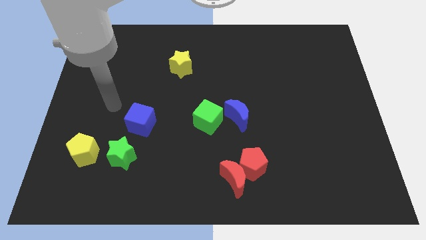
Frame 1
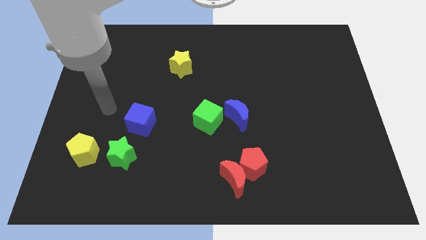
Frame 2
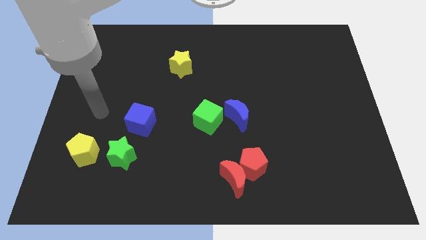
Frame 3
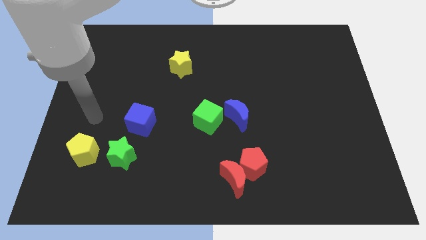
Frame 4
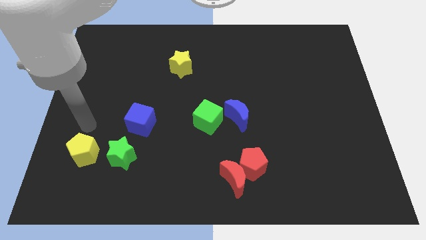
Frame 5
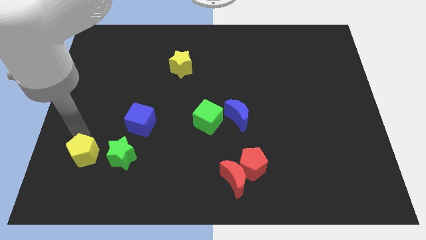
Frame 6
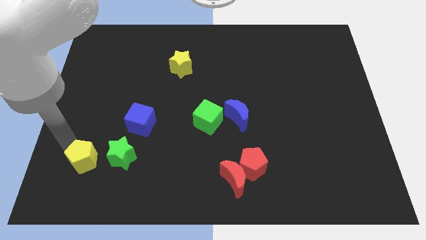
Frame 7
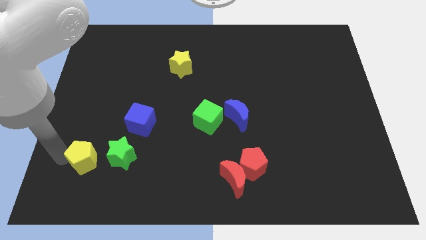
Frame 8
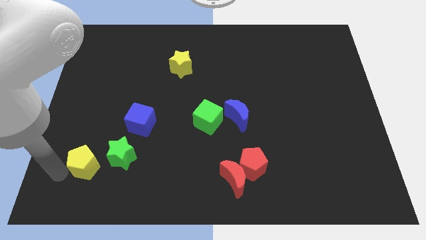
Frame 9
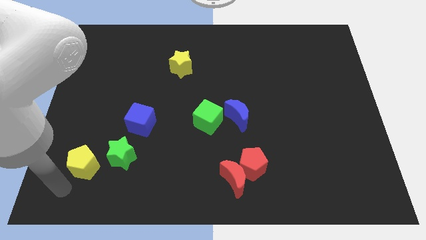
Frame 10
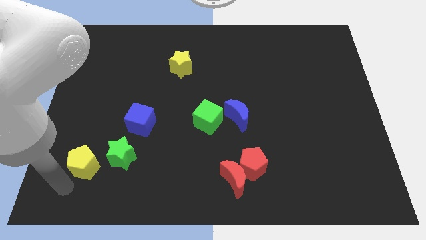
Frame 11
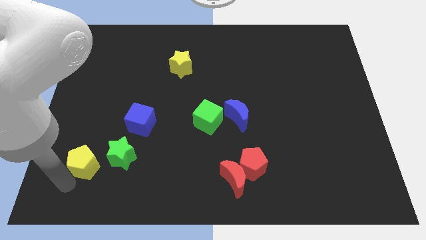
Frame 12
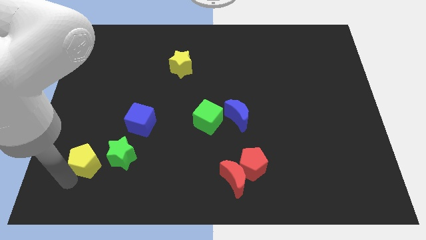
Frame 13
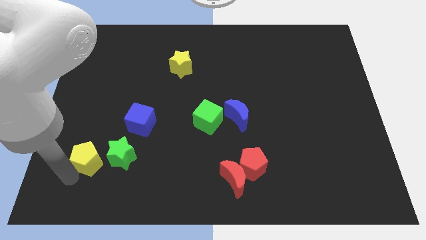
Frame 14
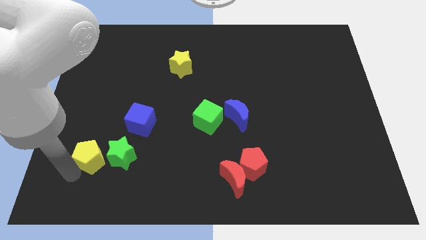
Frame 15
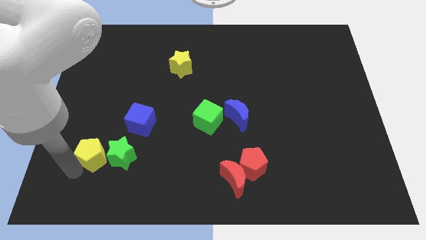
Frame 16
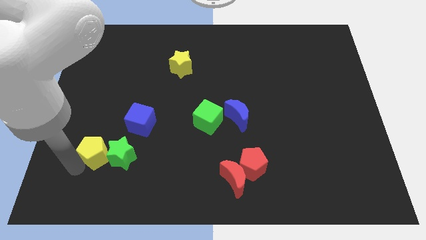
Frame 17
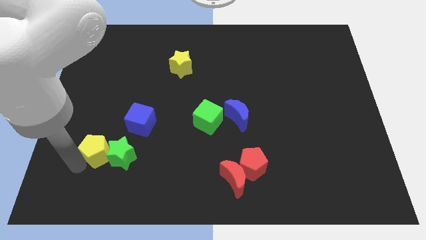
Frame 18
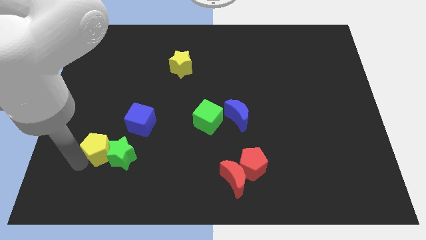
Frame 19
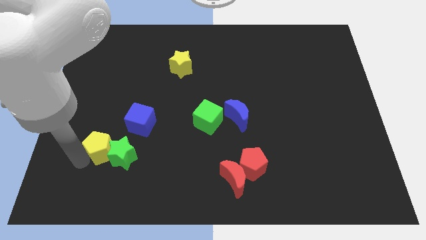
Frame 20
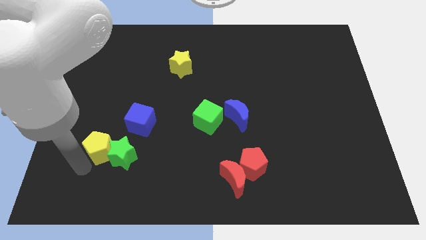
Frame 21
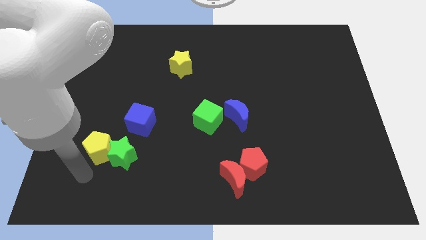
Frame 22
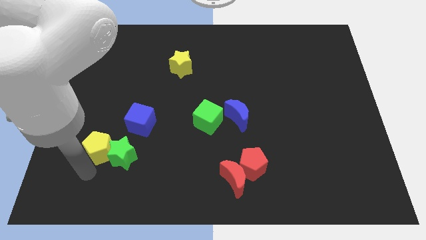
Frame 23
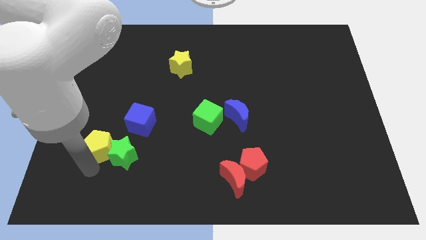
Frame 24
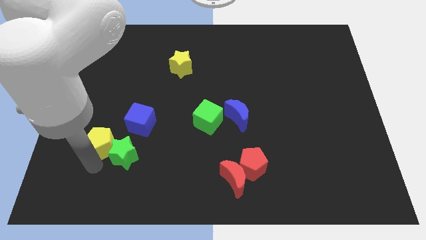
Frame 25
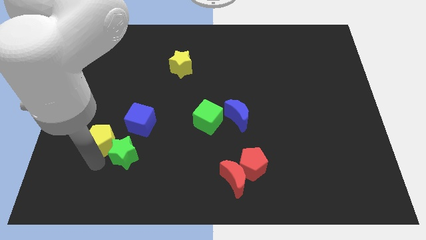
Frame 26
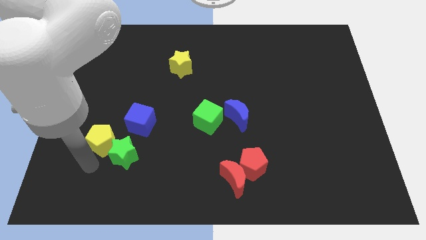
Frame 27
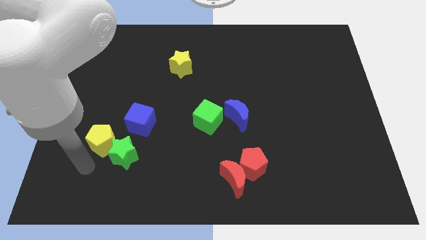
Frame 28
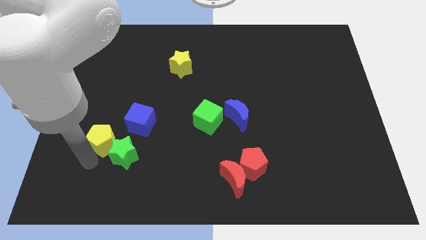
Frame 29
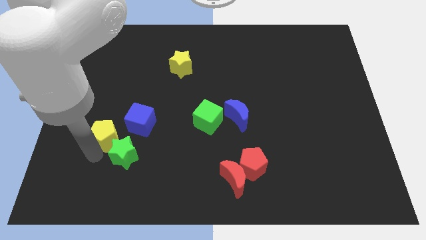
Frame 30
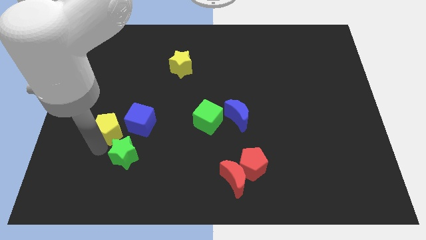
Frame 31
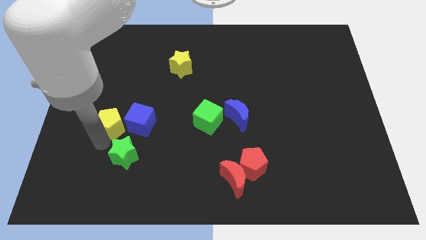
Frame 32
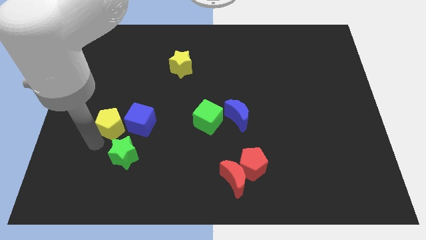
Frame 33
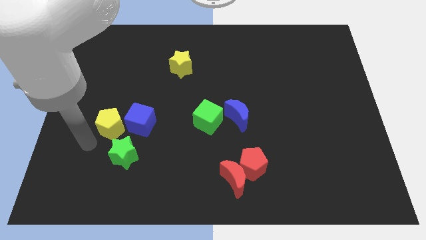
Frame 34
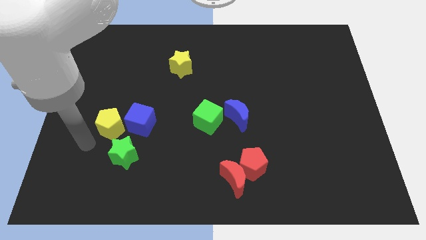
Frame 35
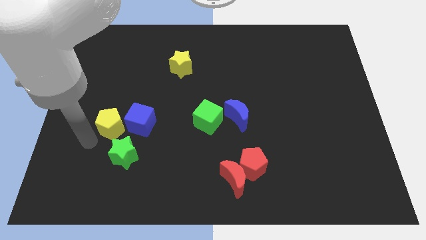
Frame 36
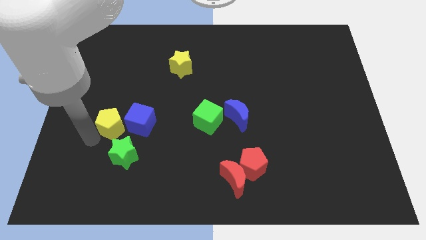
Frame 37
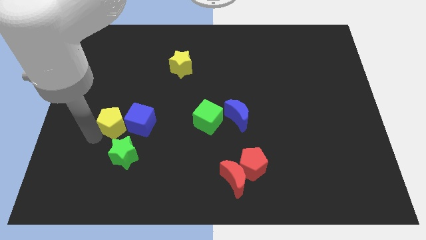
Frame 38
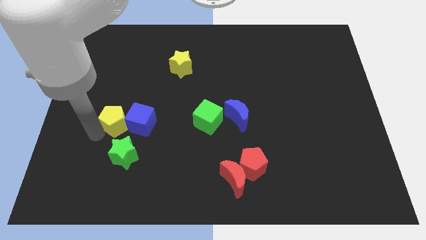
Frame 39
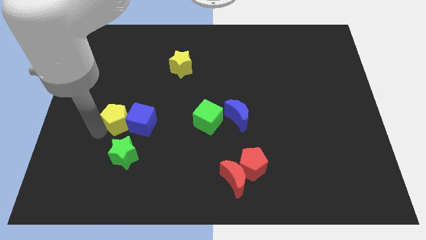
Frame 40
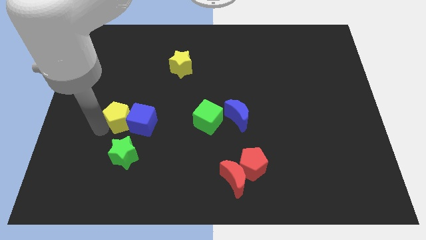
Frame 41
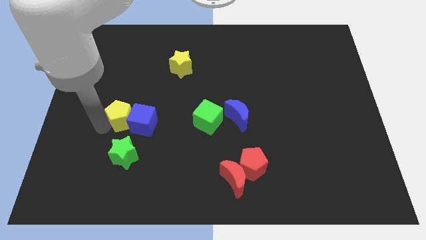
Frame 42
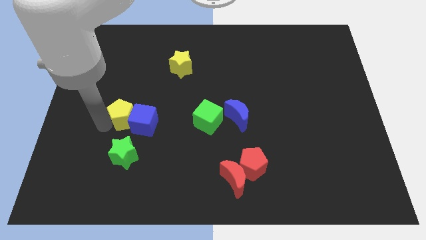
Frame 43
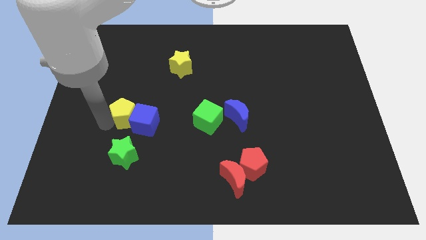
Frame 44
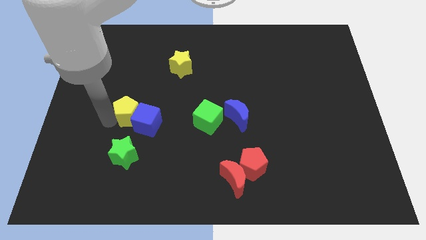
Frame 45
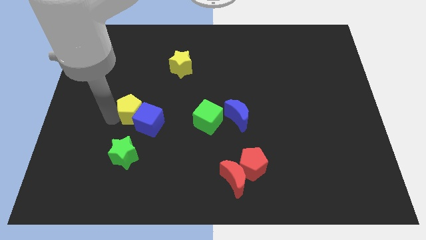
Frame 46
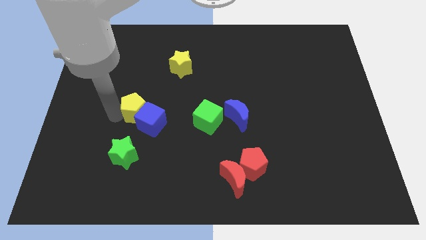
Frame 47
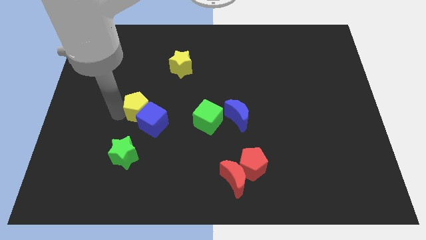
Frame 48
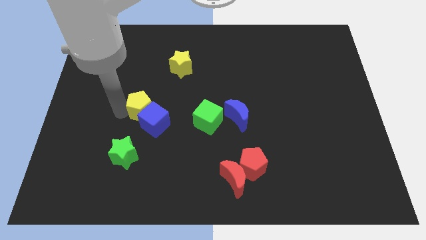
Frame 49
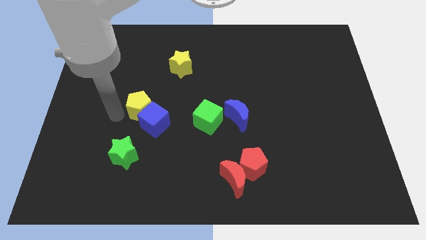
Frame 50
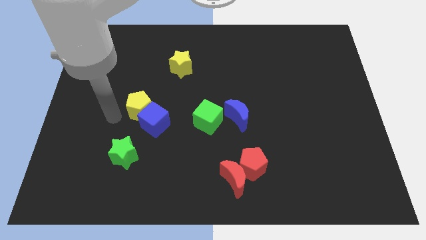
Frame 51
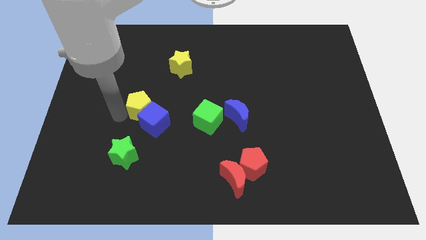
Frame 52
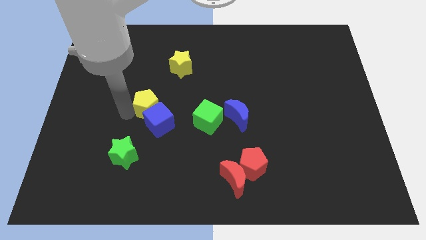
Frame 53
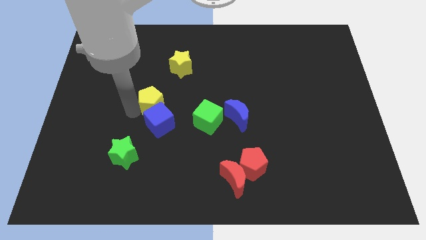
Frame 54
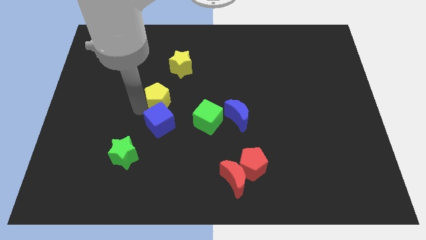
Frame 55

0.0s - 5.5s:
move the yellow pentagon to the bottom of the yellow star

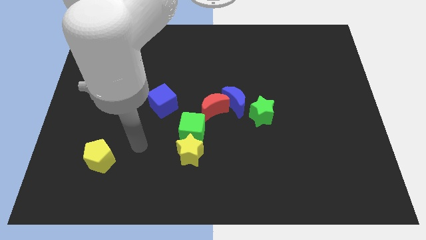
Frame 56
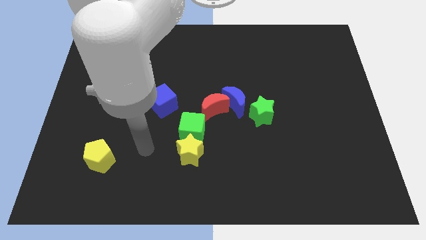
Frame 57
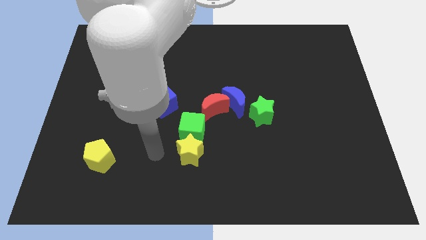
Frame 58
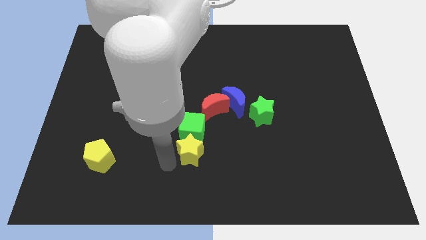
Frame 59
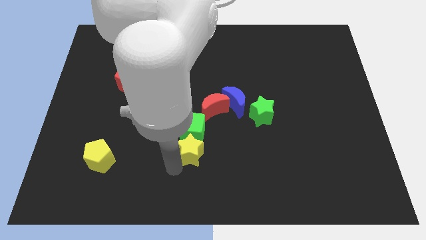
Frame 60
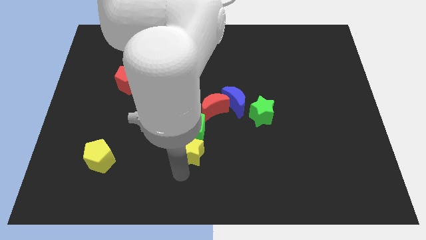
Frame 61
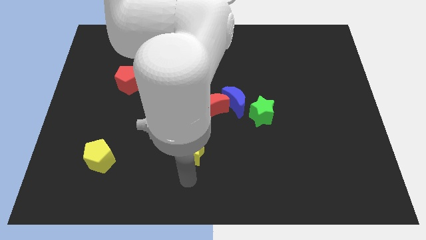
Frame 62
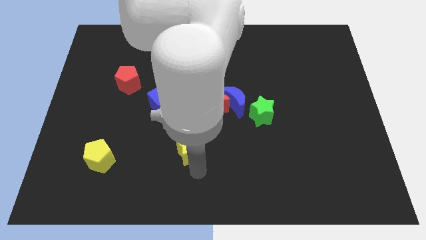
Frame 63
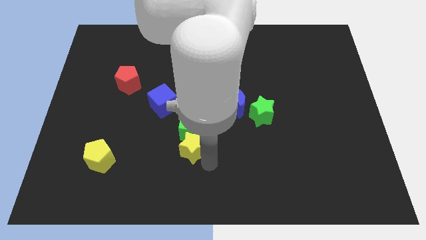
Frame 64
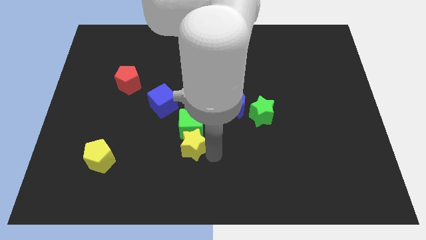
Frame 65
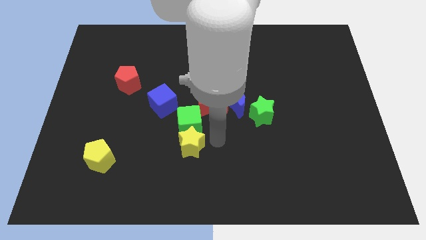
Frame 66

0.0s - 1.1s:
move the green cube to the left of the red moon

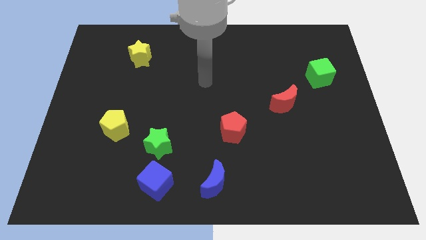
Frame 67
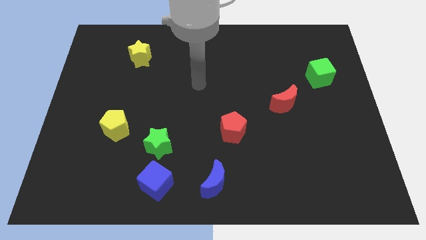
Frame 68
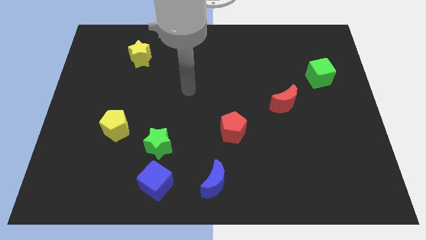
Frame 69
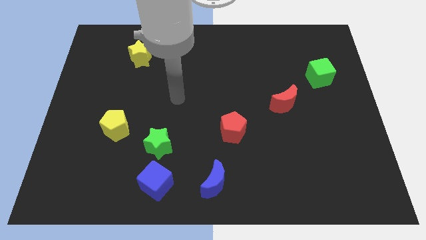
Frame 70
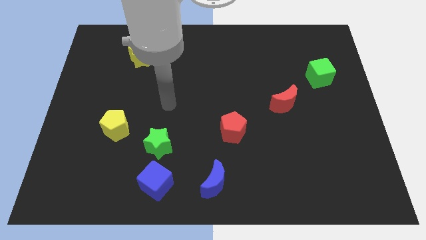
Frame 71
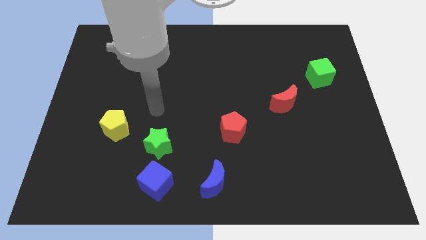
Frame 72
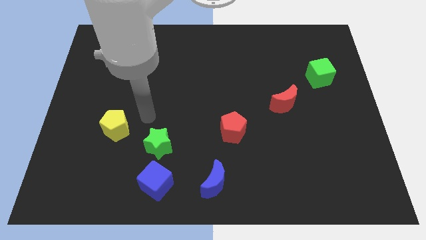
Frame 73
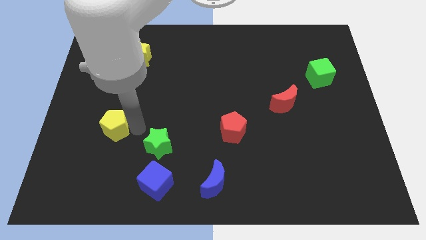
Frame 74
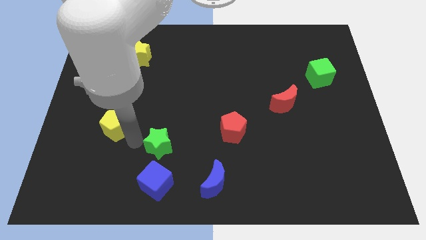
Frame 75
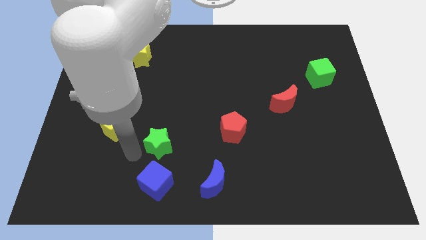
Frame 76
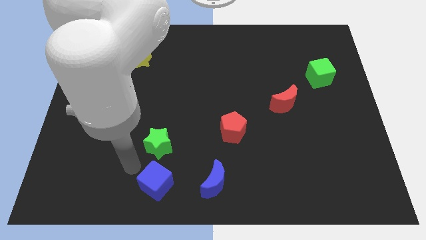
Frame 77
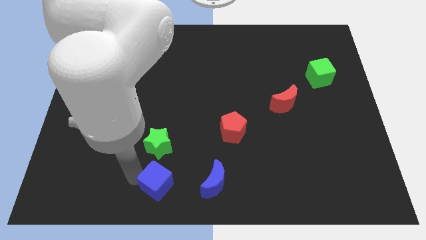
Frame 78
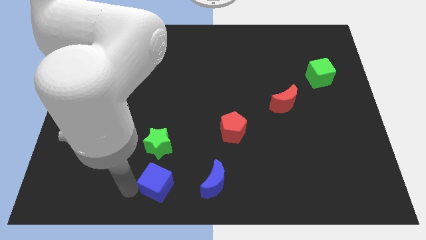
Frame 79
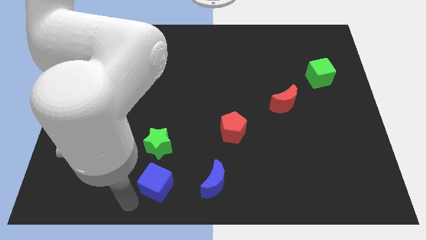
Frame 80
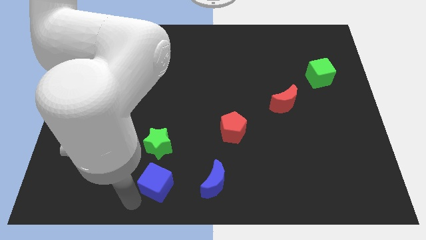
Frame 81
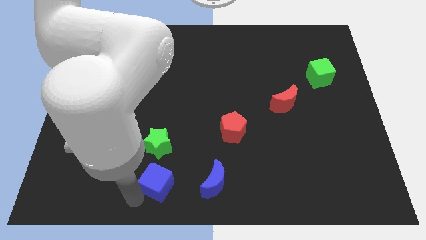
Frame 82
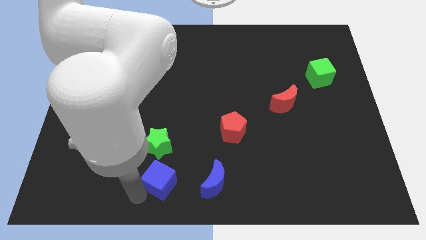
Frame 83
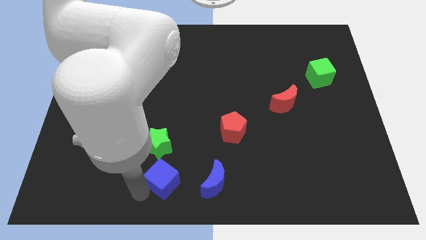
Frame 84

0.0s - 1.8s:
put the blue cube diagonally down and to the right of the green star
